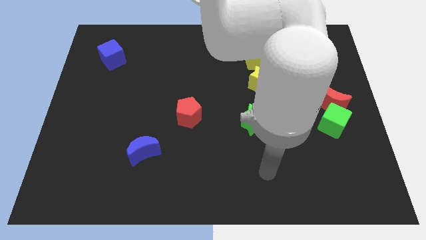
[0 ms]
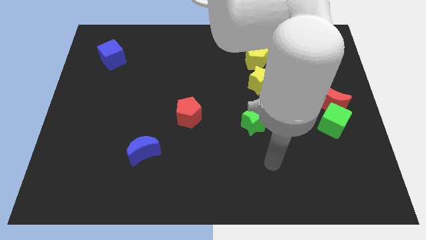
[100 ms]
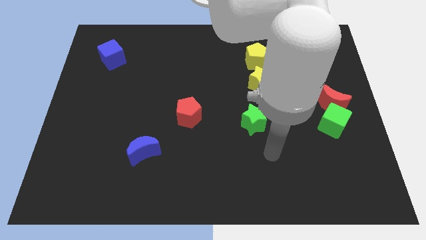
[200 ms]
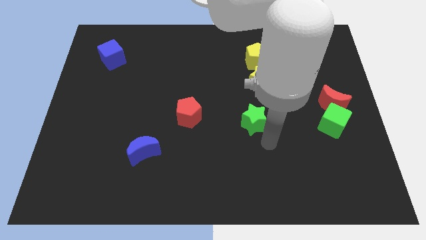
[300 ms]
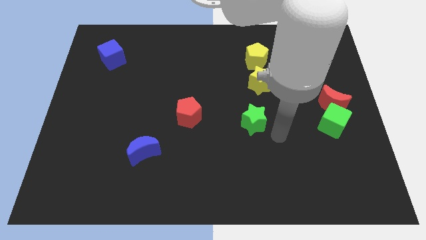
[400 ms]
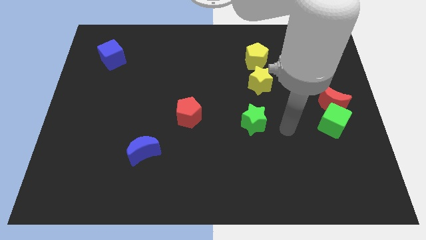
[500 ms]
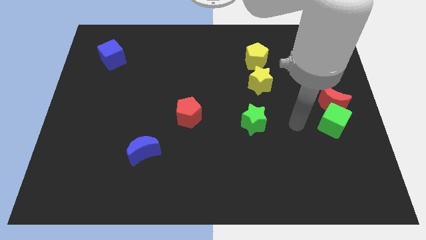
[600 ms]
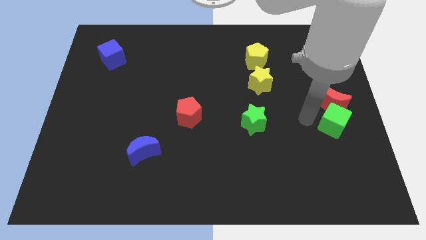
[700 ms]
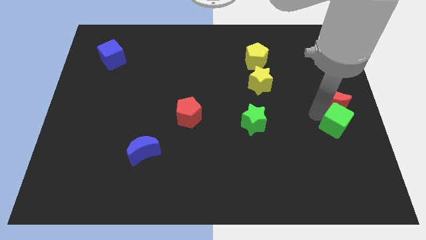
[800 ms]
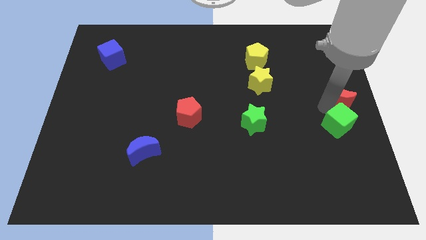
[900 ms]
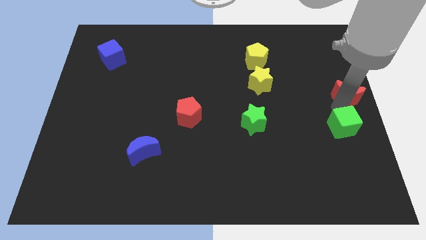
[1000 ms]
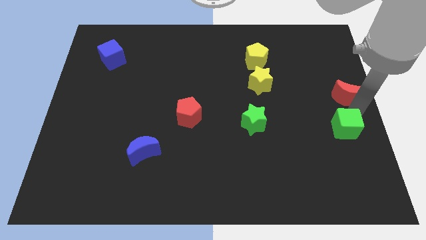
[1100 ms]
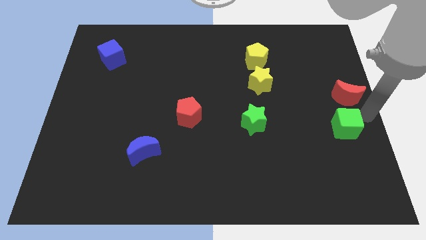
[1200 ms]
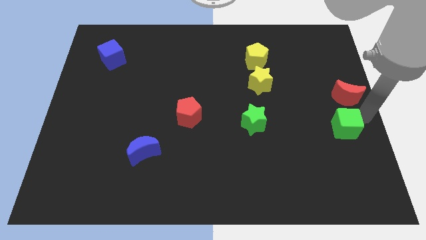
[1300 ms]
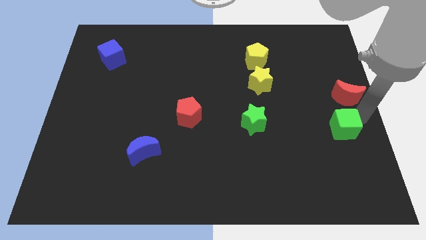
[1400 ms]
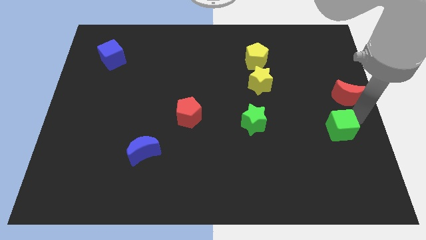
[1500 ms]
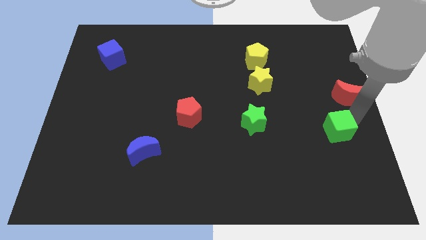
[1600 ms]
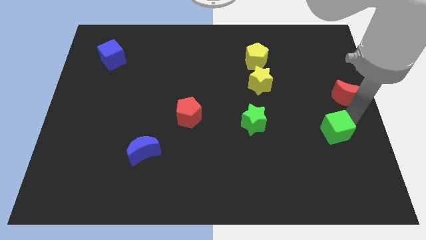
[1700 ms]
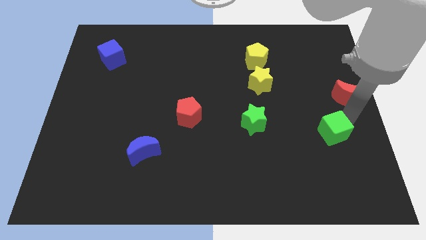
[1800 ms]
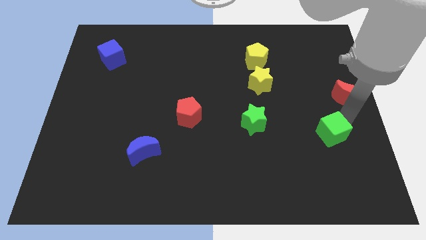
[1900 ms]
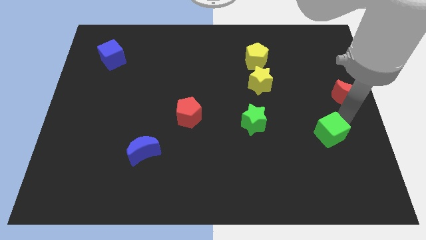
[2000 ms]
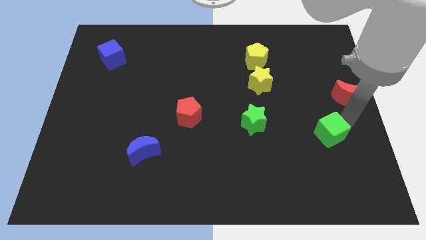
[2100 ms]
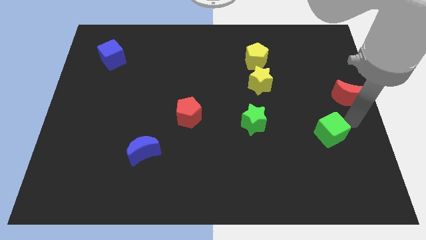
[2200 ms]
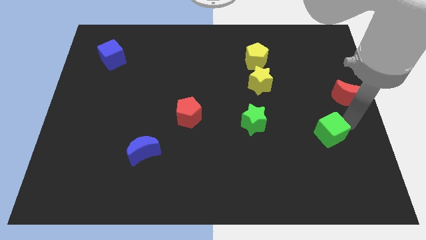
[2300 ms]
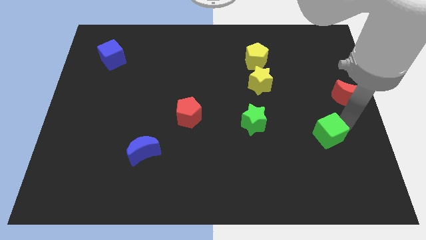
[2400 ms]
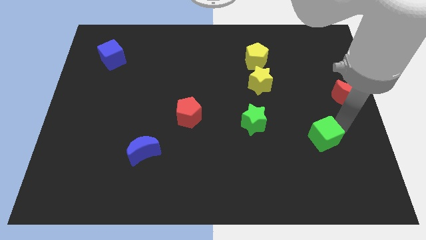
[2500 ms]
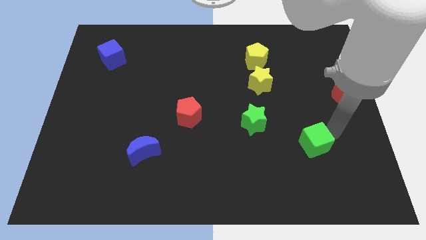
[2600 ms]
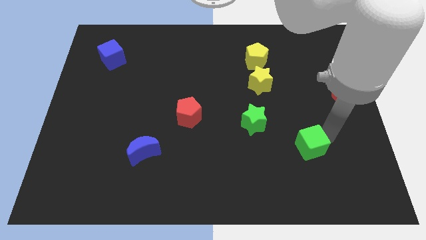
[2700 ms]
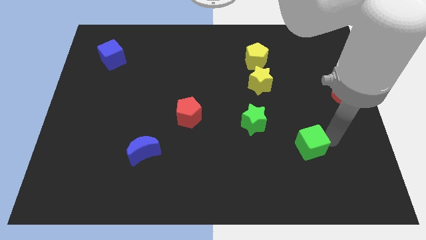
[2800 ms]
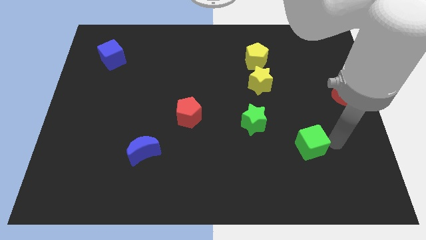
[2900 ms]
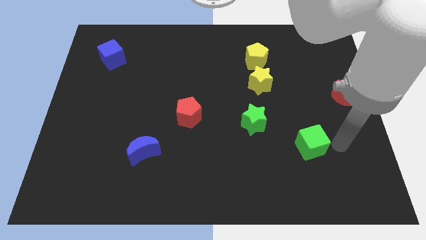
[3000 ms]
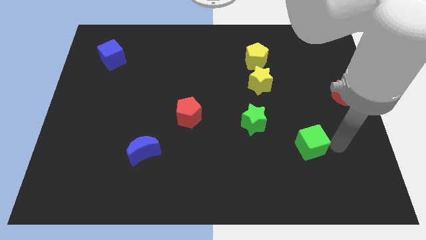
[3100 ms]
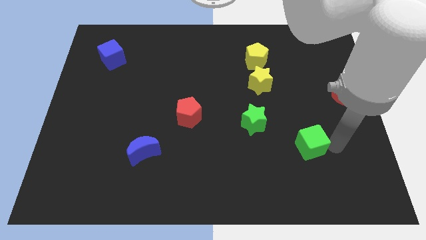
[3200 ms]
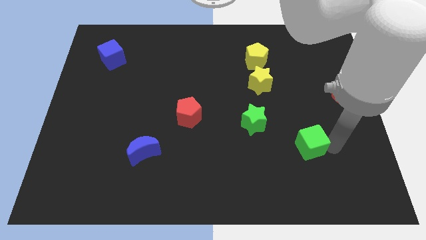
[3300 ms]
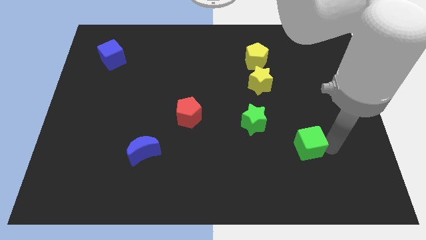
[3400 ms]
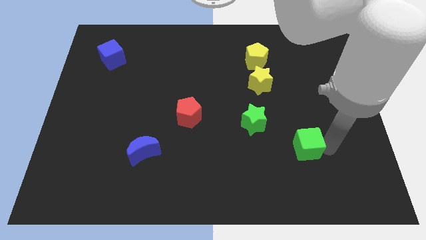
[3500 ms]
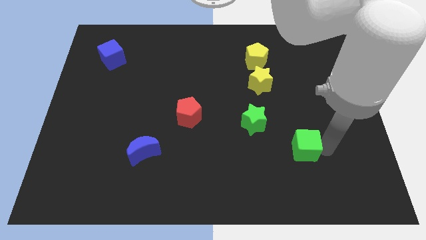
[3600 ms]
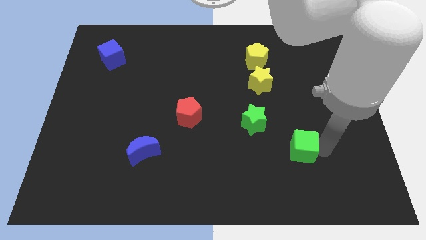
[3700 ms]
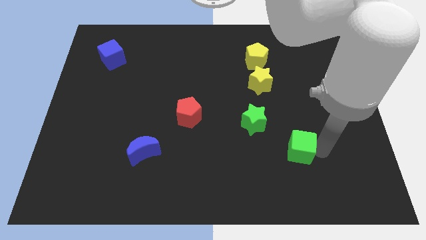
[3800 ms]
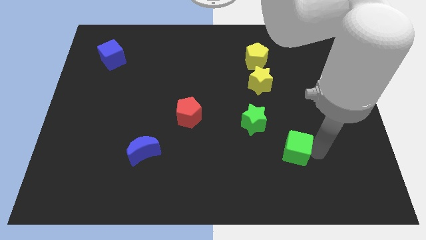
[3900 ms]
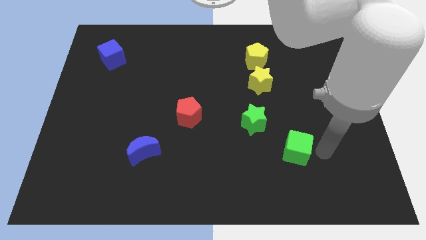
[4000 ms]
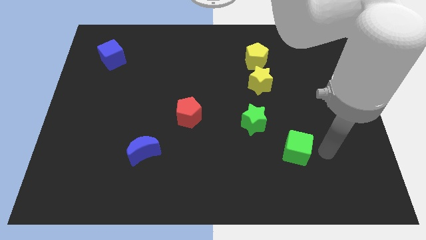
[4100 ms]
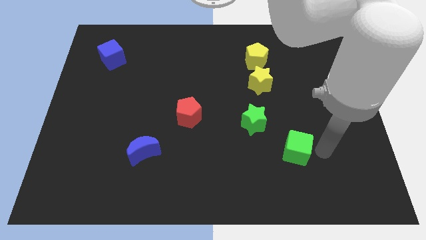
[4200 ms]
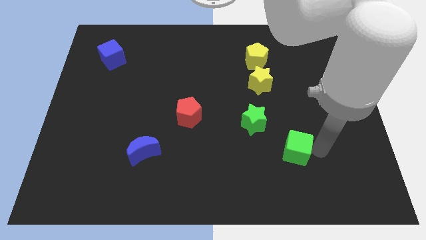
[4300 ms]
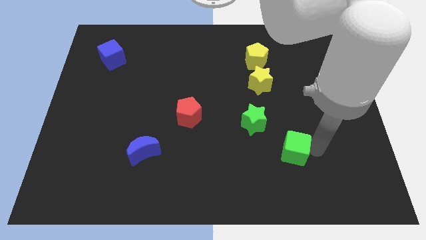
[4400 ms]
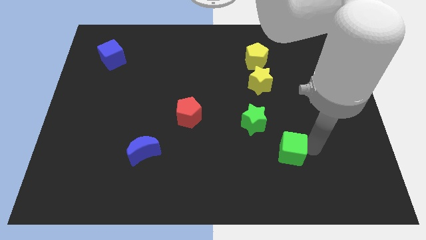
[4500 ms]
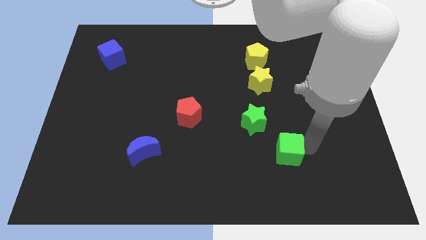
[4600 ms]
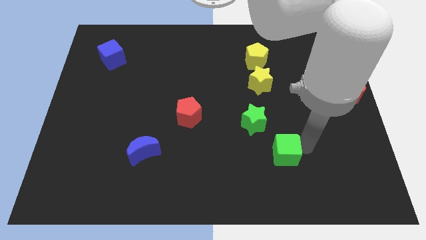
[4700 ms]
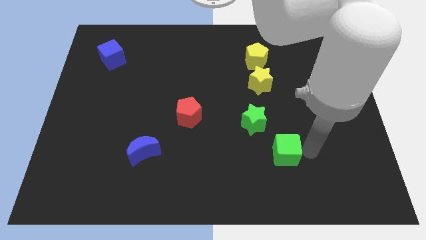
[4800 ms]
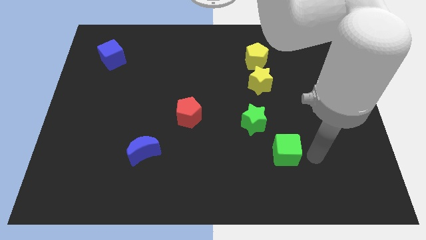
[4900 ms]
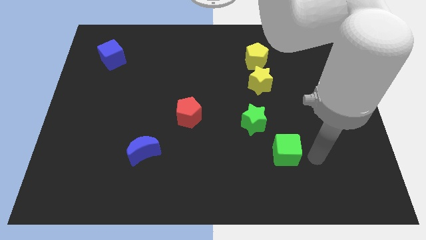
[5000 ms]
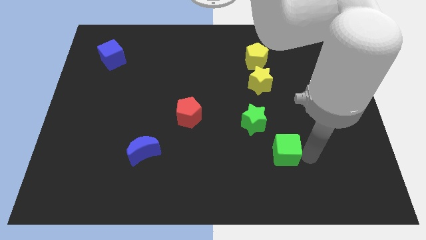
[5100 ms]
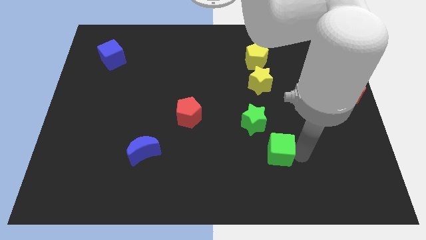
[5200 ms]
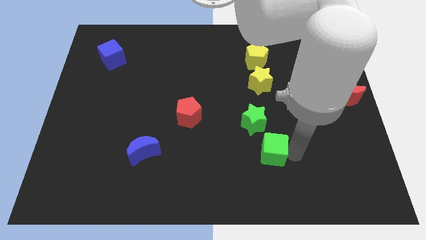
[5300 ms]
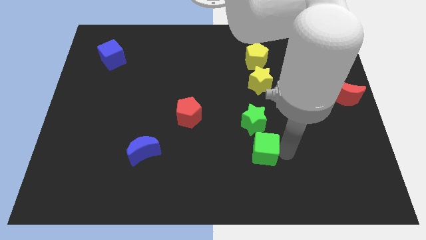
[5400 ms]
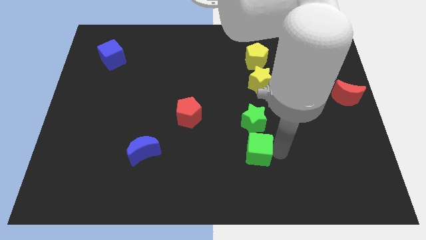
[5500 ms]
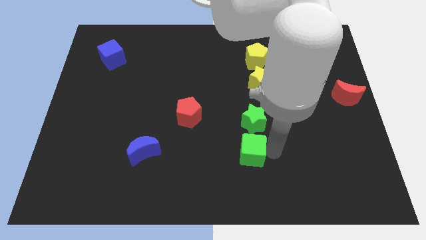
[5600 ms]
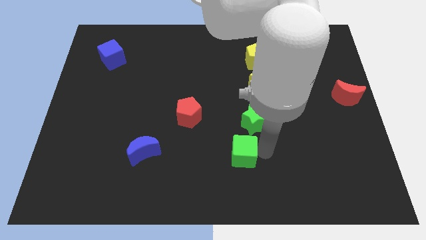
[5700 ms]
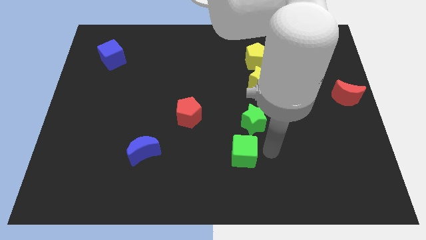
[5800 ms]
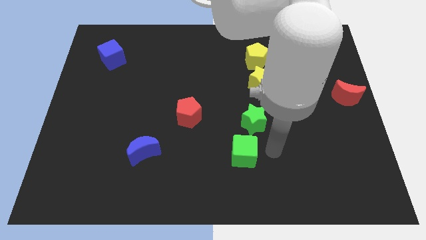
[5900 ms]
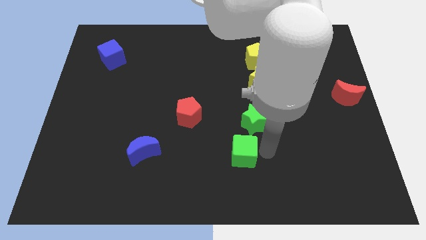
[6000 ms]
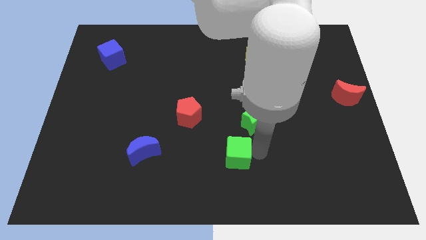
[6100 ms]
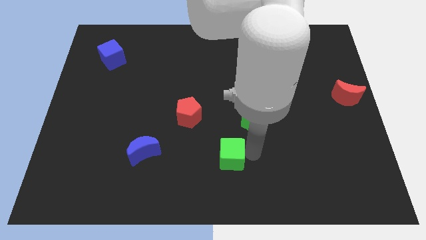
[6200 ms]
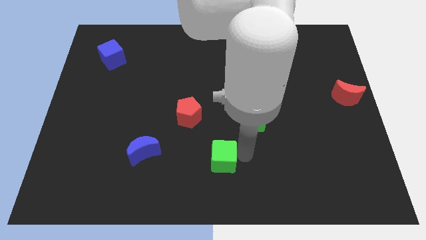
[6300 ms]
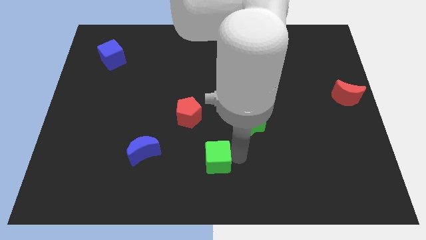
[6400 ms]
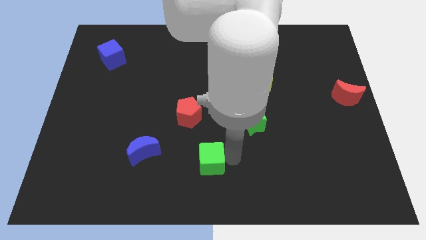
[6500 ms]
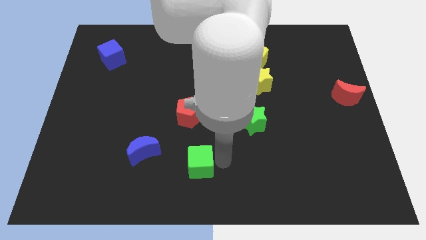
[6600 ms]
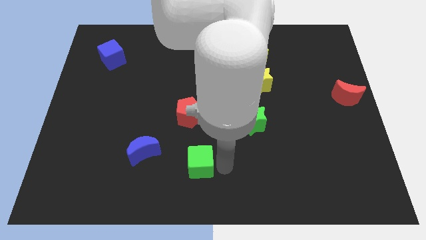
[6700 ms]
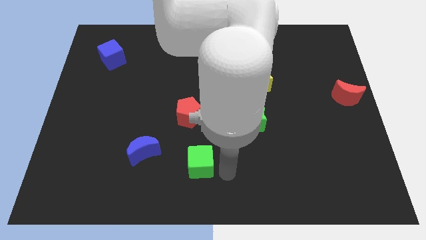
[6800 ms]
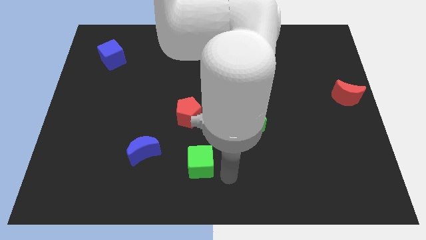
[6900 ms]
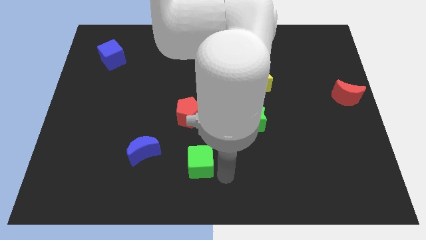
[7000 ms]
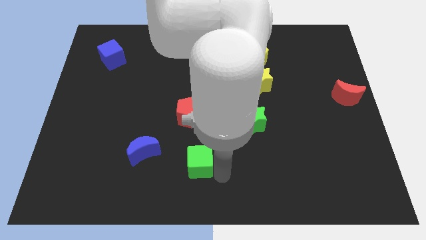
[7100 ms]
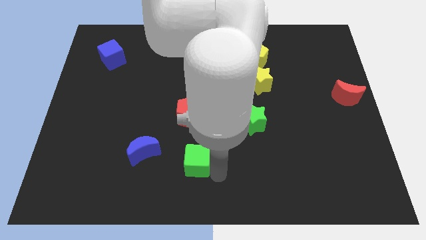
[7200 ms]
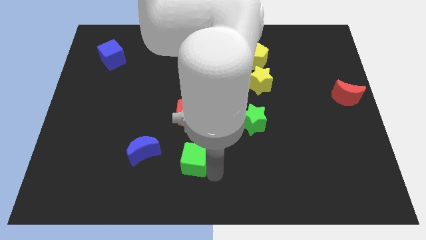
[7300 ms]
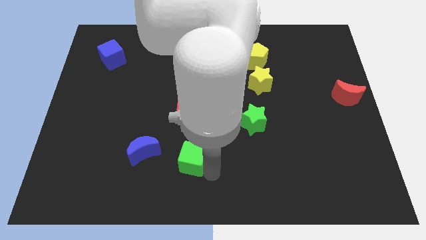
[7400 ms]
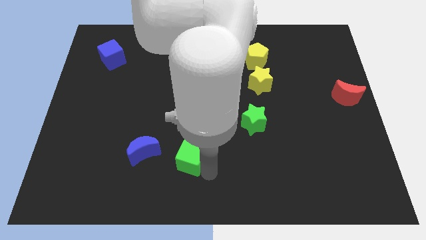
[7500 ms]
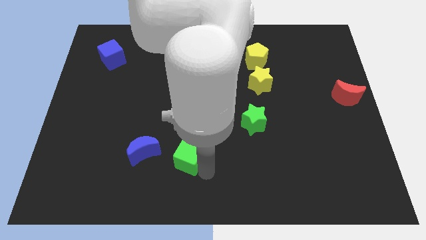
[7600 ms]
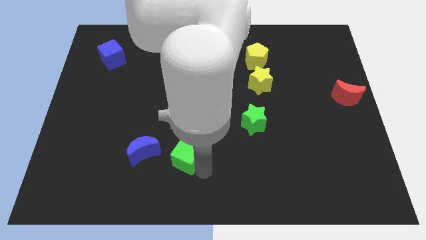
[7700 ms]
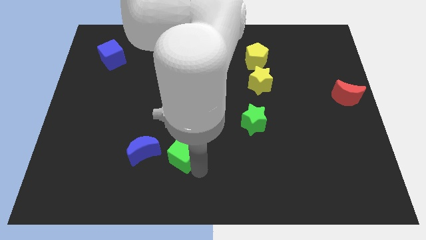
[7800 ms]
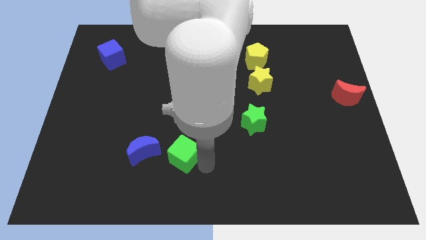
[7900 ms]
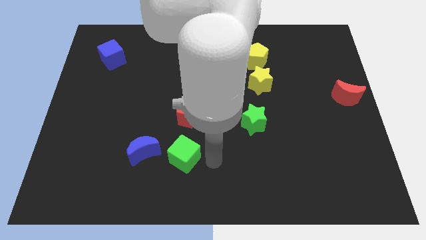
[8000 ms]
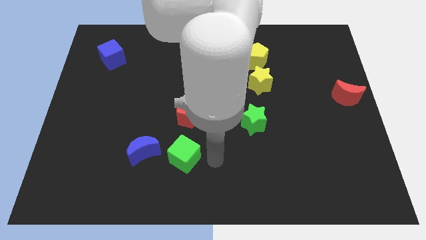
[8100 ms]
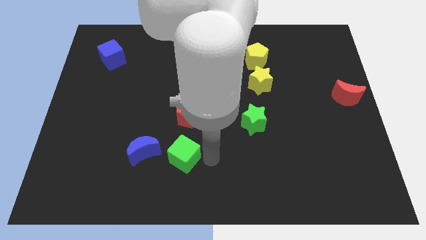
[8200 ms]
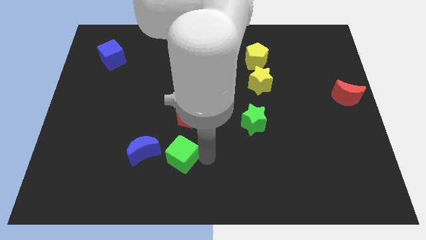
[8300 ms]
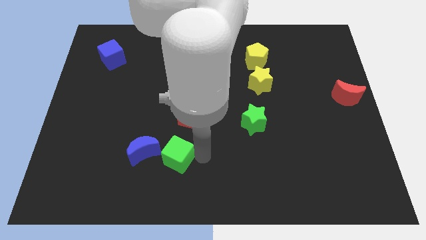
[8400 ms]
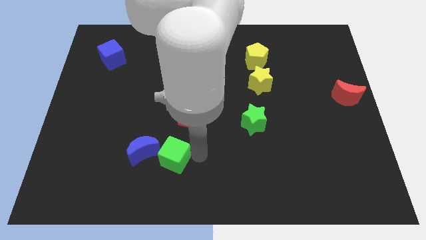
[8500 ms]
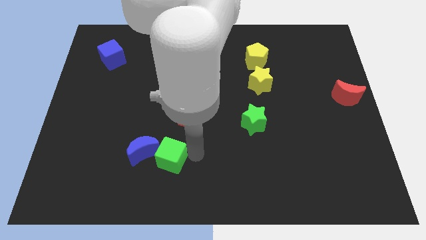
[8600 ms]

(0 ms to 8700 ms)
put the green cube to the blue moon
